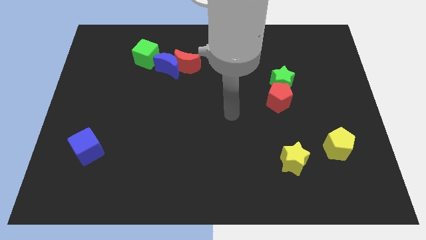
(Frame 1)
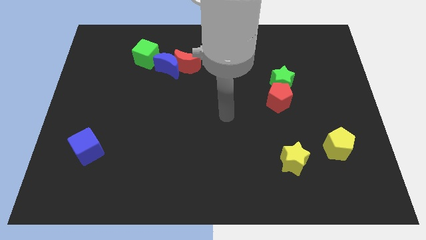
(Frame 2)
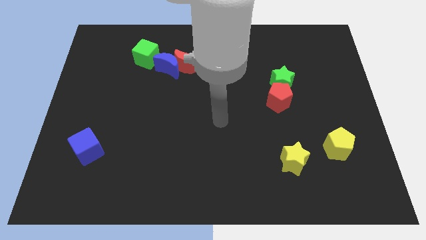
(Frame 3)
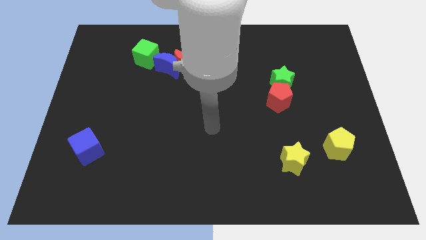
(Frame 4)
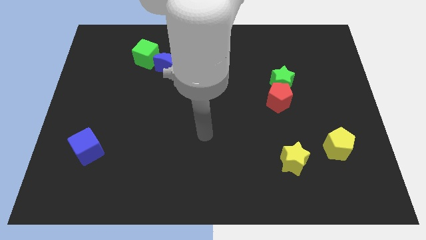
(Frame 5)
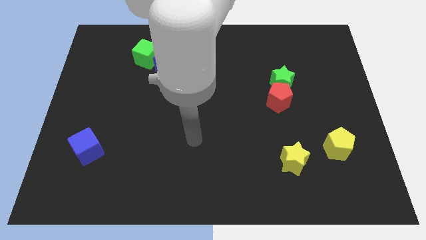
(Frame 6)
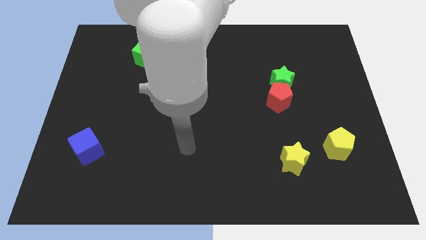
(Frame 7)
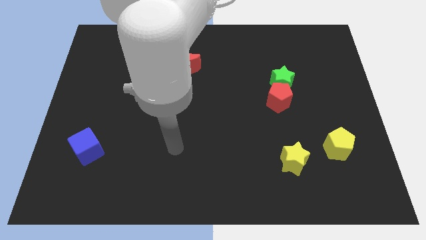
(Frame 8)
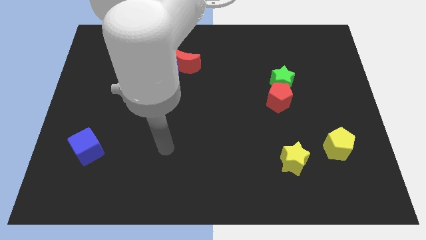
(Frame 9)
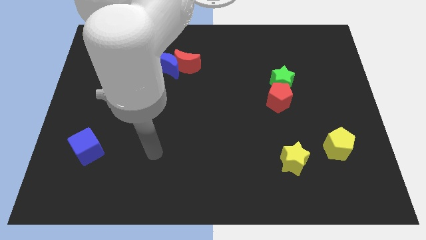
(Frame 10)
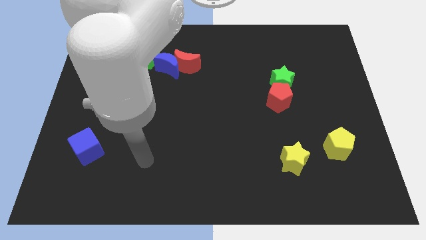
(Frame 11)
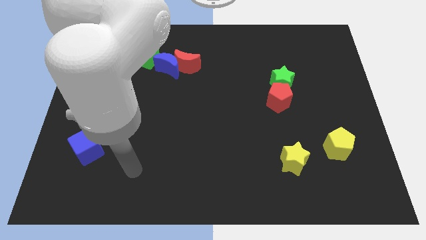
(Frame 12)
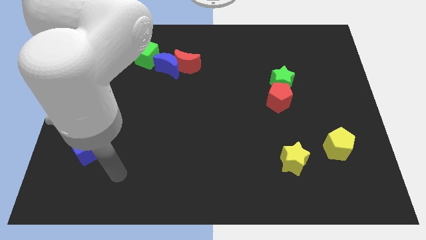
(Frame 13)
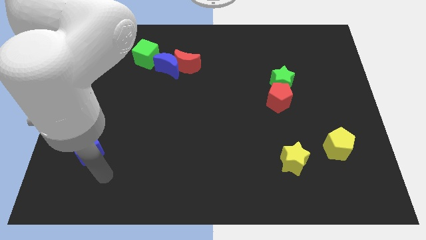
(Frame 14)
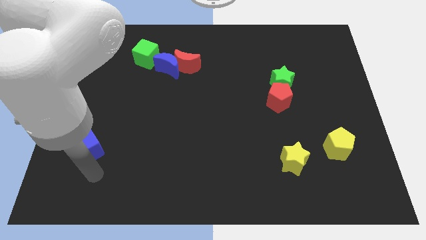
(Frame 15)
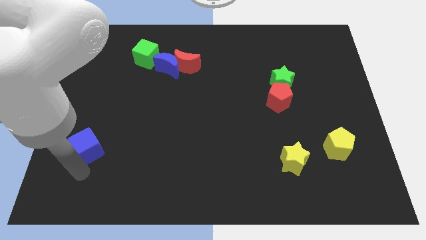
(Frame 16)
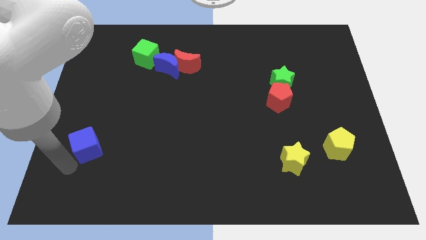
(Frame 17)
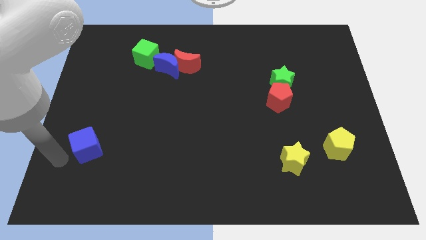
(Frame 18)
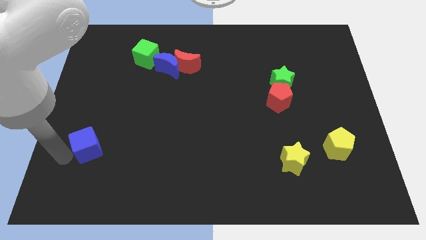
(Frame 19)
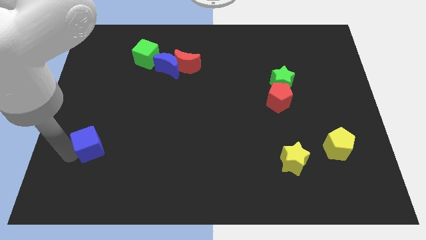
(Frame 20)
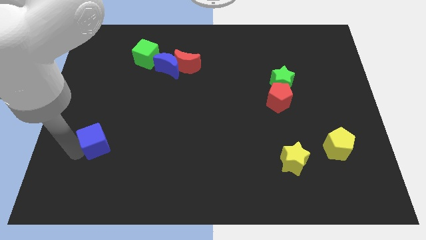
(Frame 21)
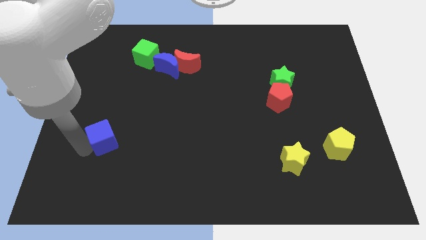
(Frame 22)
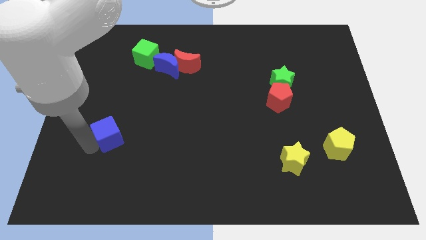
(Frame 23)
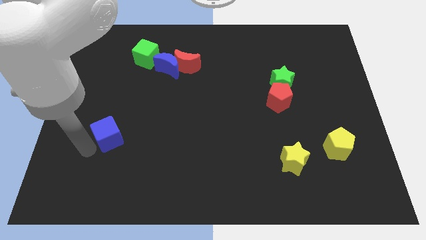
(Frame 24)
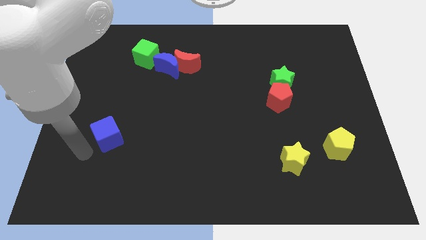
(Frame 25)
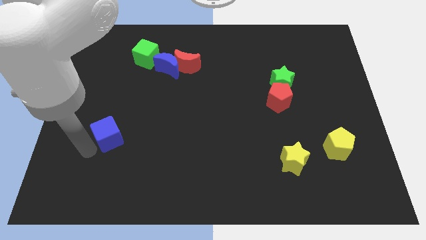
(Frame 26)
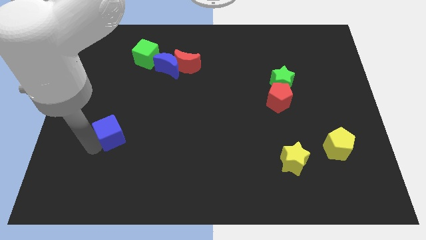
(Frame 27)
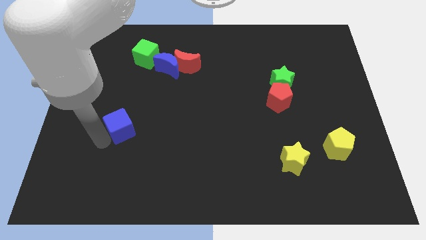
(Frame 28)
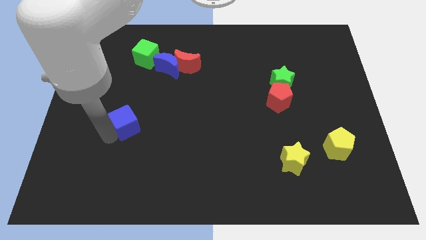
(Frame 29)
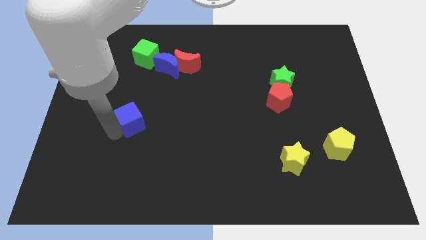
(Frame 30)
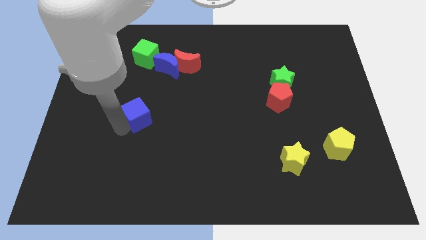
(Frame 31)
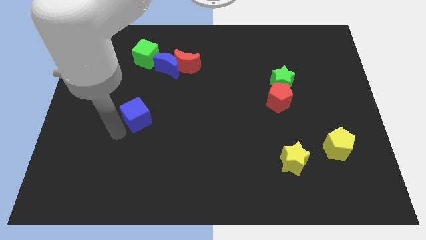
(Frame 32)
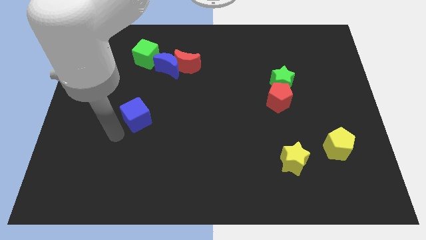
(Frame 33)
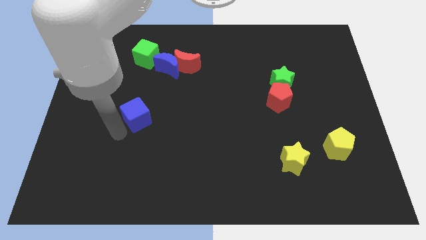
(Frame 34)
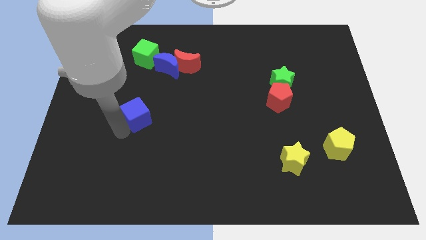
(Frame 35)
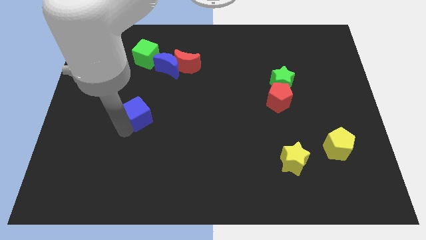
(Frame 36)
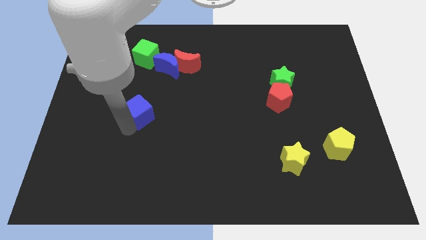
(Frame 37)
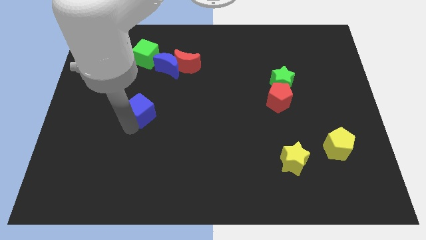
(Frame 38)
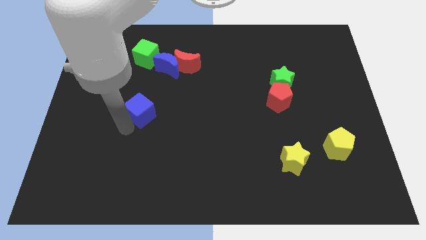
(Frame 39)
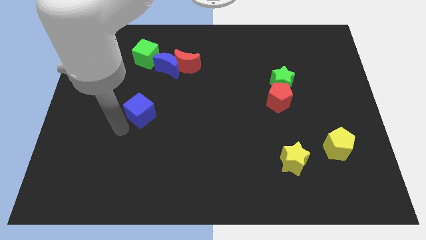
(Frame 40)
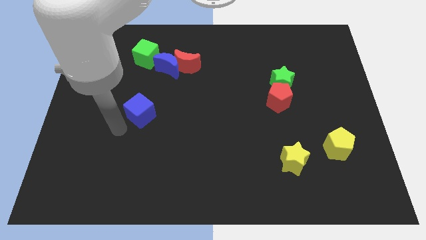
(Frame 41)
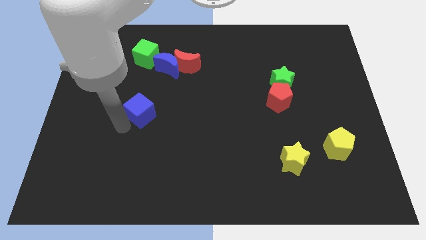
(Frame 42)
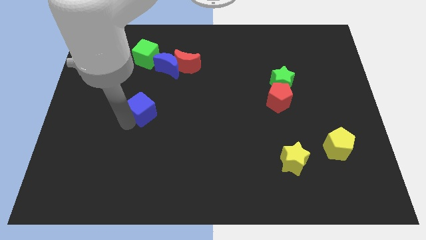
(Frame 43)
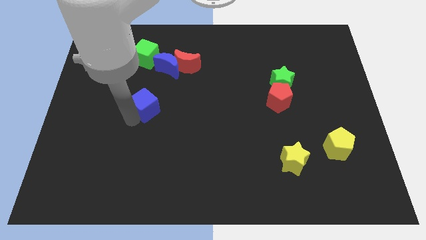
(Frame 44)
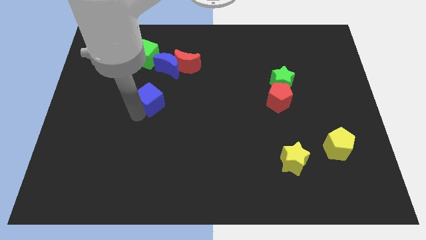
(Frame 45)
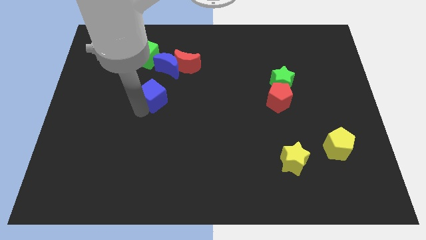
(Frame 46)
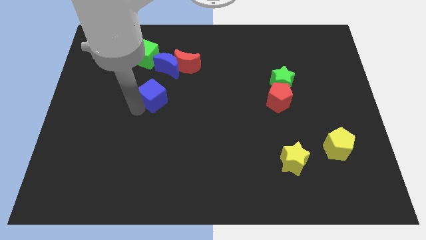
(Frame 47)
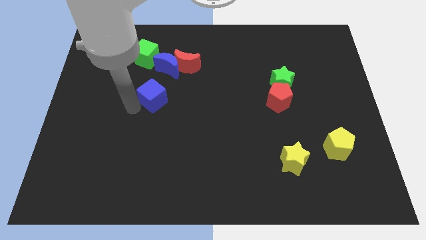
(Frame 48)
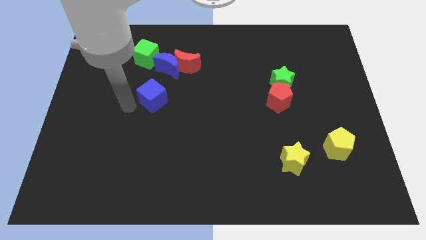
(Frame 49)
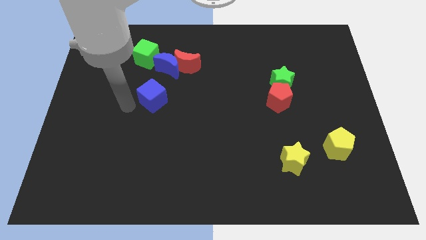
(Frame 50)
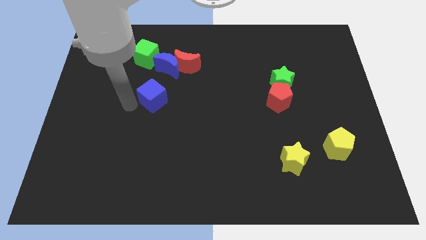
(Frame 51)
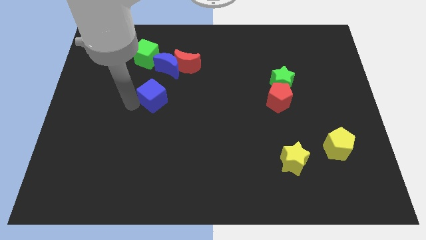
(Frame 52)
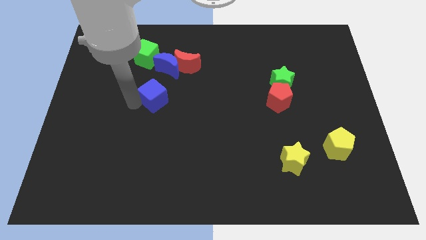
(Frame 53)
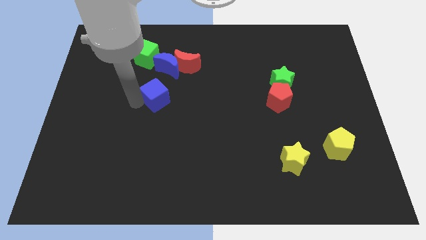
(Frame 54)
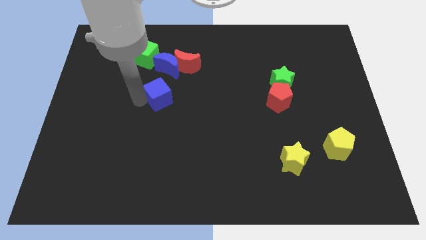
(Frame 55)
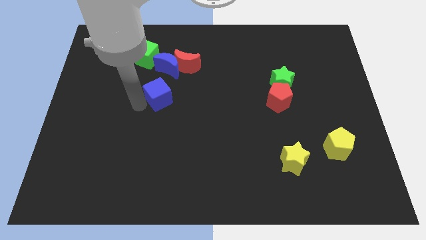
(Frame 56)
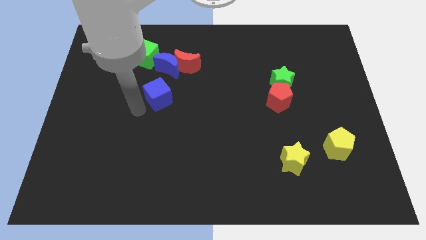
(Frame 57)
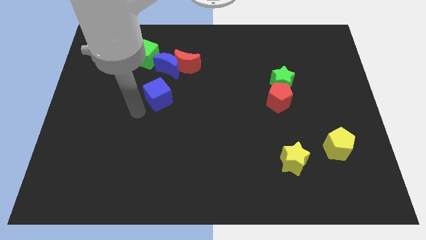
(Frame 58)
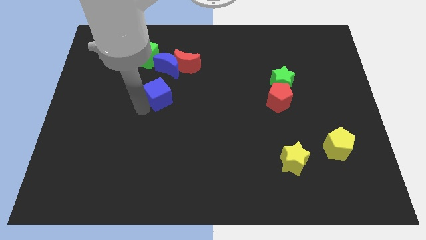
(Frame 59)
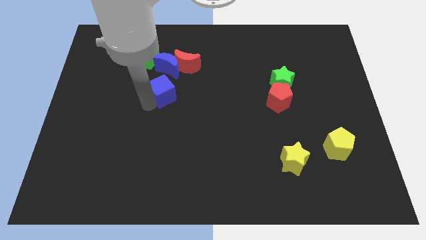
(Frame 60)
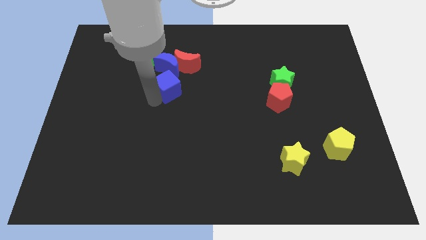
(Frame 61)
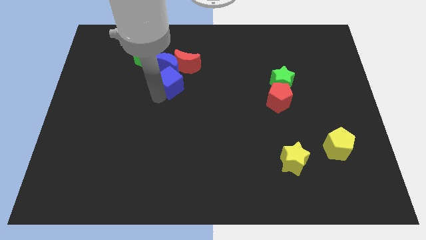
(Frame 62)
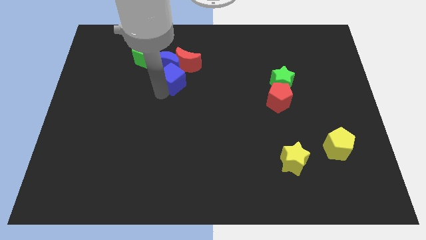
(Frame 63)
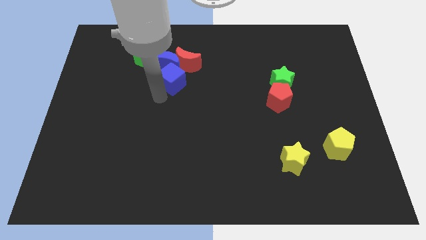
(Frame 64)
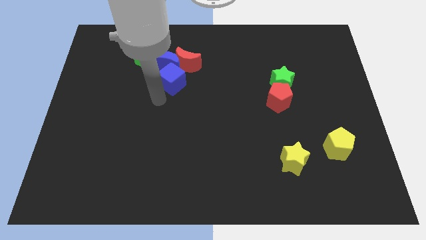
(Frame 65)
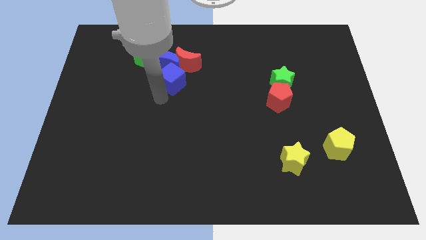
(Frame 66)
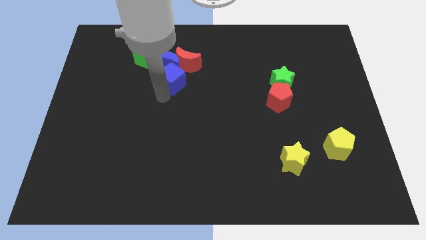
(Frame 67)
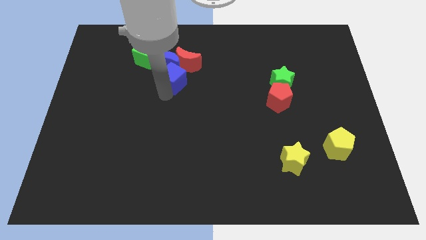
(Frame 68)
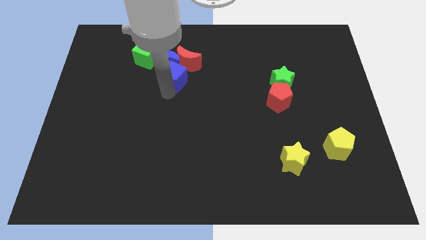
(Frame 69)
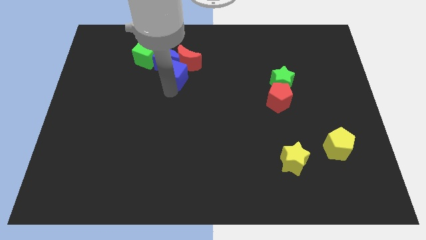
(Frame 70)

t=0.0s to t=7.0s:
push the blue cube towards the red moon
